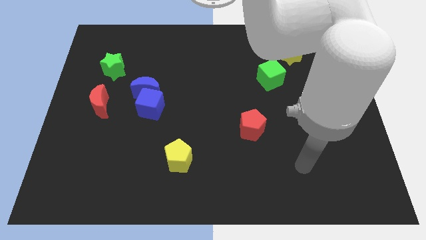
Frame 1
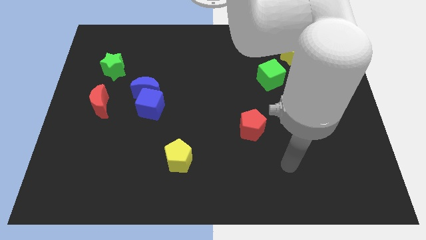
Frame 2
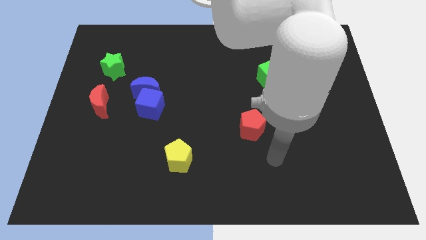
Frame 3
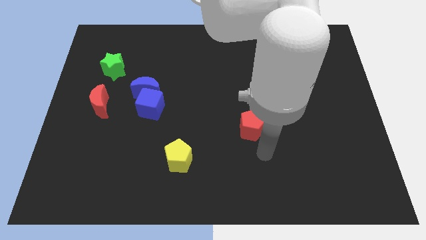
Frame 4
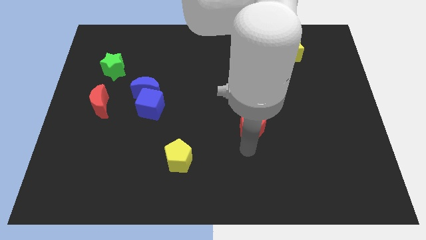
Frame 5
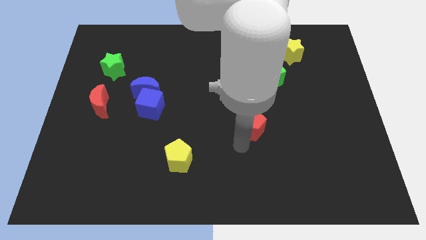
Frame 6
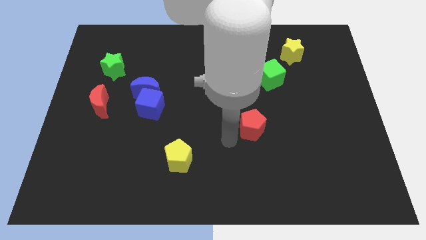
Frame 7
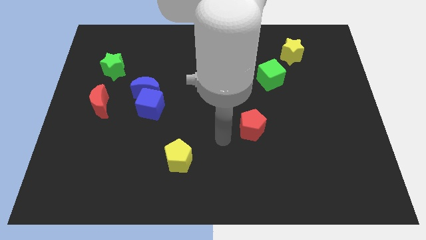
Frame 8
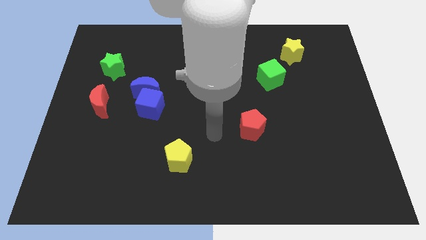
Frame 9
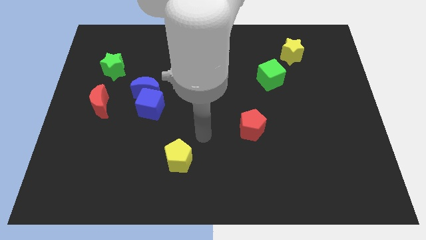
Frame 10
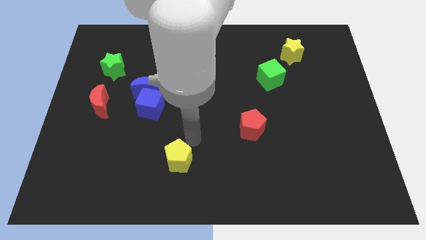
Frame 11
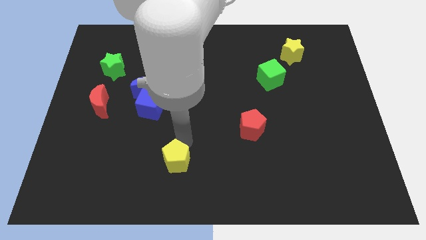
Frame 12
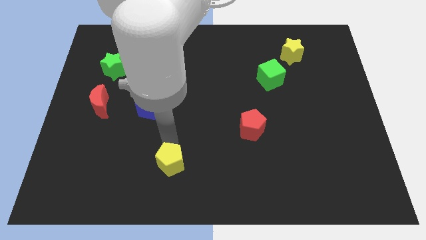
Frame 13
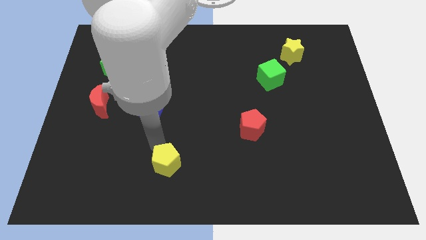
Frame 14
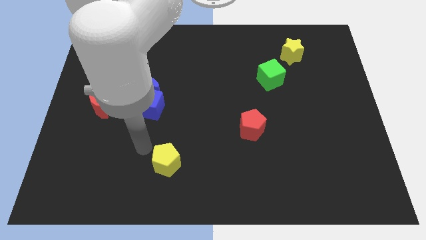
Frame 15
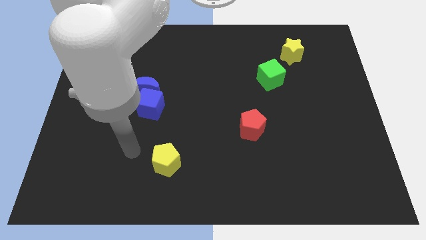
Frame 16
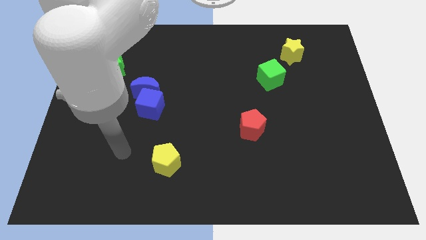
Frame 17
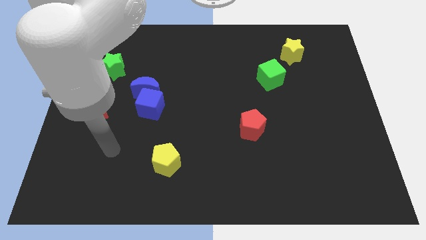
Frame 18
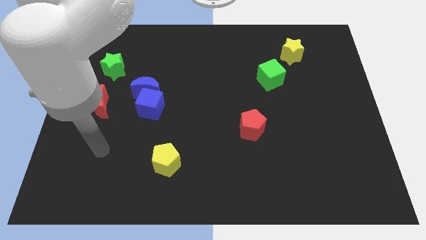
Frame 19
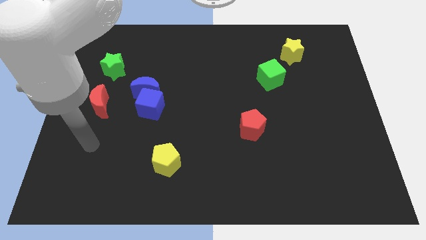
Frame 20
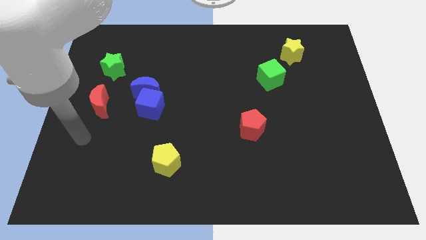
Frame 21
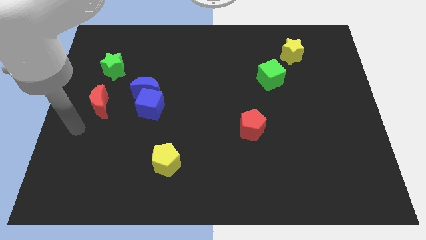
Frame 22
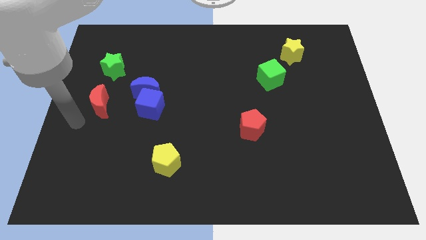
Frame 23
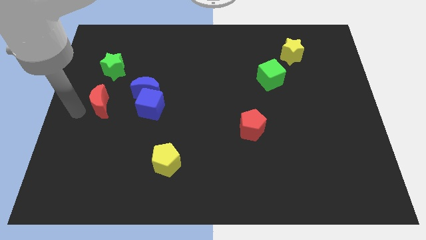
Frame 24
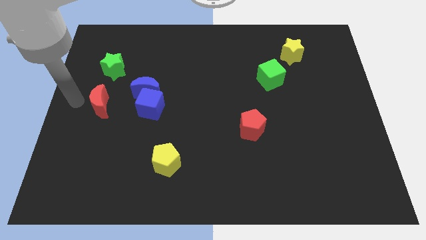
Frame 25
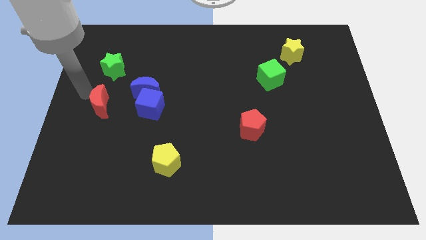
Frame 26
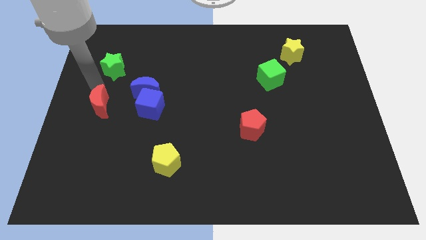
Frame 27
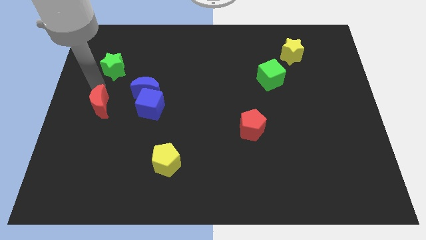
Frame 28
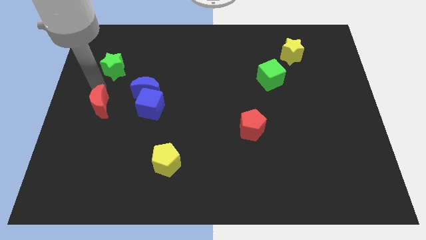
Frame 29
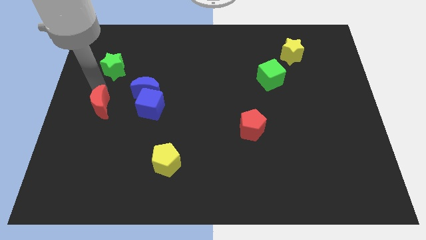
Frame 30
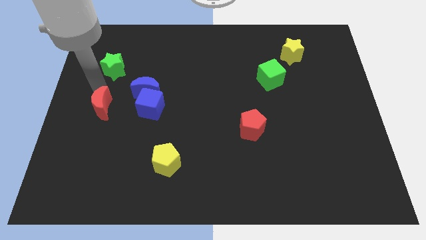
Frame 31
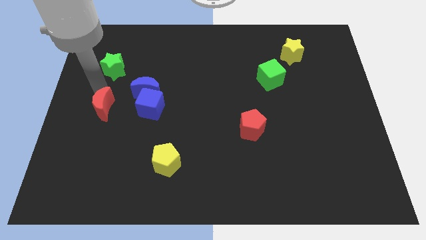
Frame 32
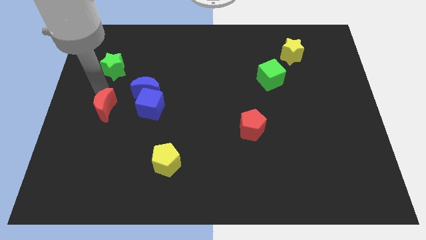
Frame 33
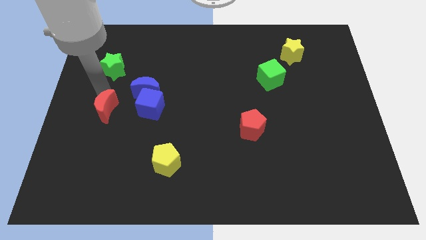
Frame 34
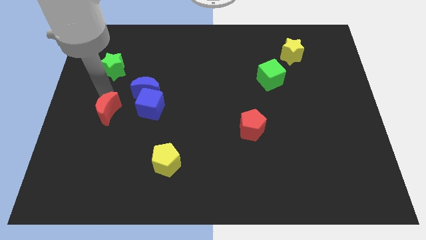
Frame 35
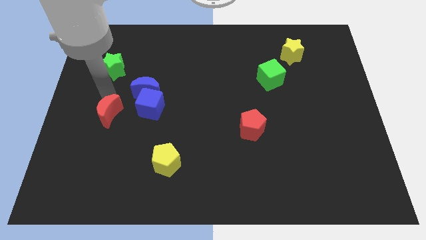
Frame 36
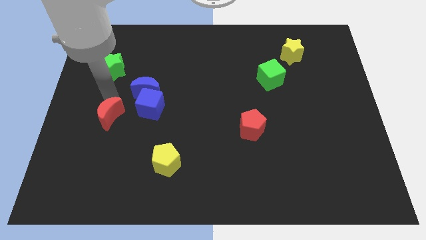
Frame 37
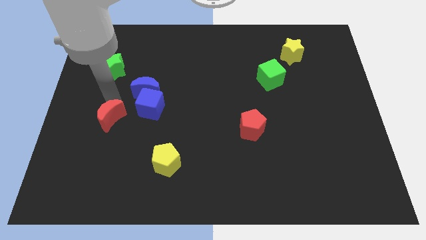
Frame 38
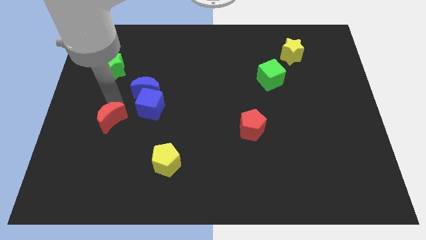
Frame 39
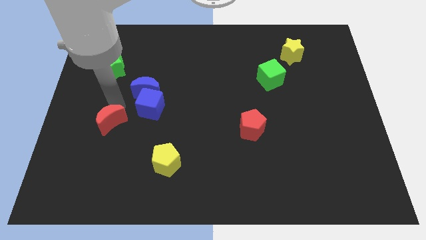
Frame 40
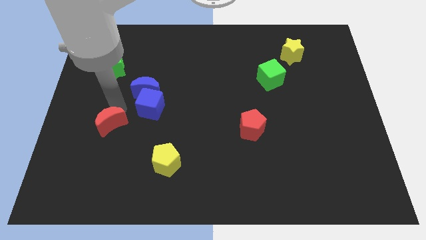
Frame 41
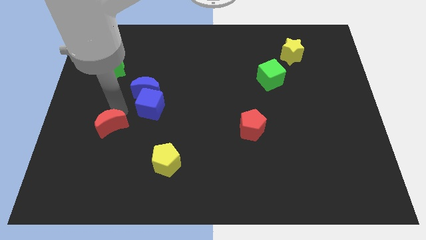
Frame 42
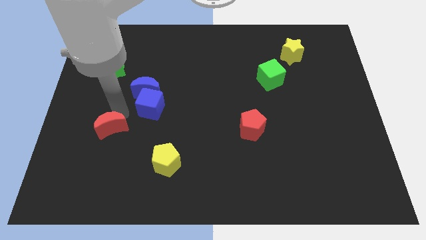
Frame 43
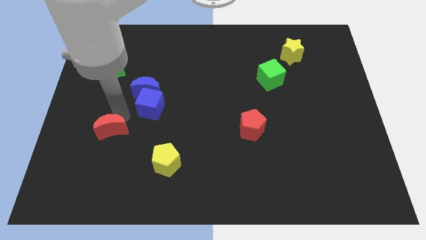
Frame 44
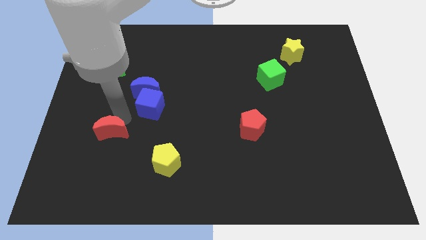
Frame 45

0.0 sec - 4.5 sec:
slightly slide the red moon downwards

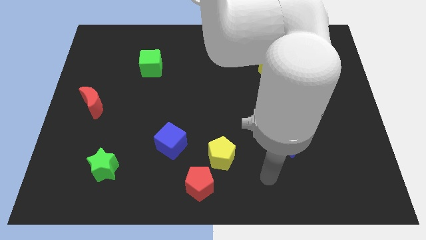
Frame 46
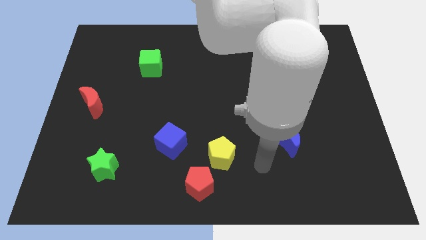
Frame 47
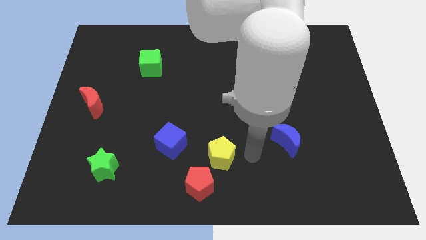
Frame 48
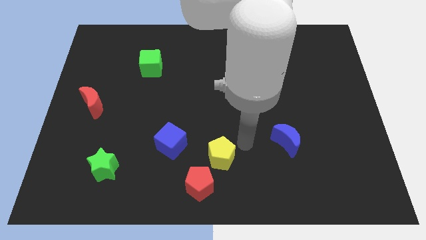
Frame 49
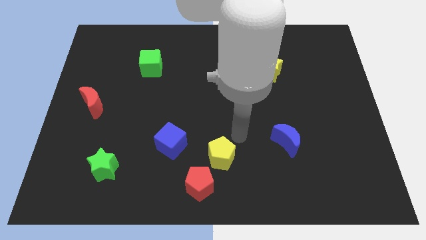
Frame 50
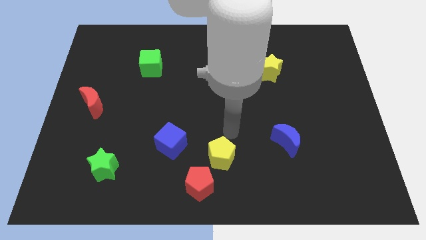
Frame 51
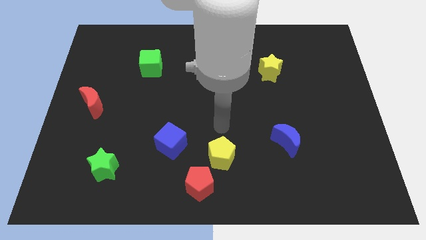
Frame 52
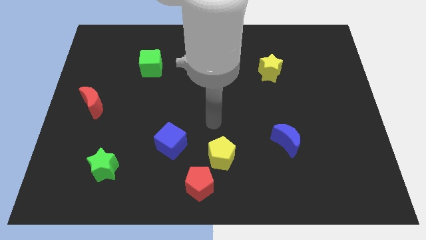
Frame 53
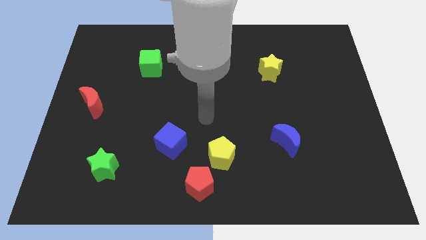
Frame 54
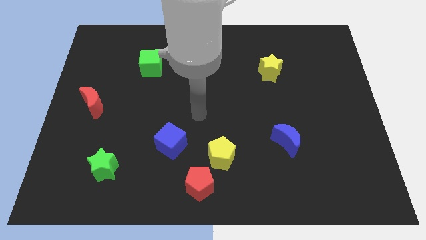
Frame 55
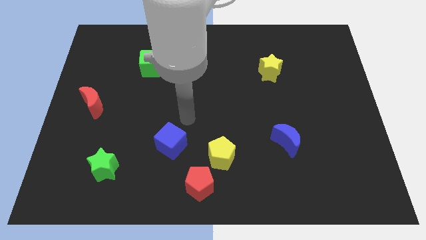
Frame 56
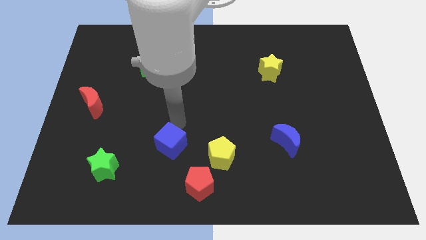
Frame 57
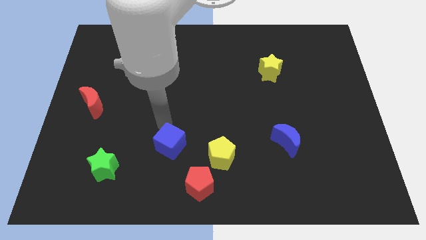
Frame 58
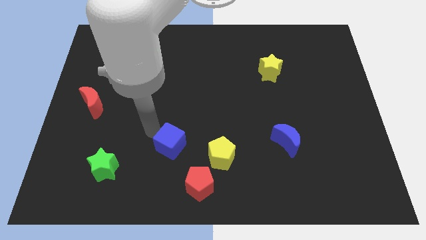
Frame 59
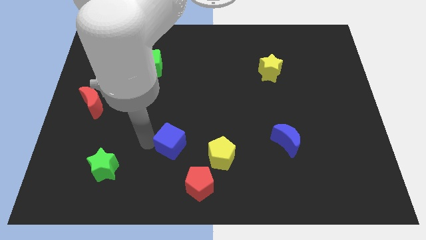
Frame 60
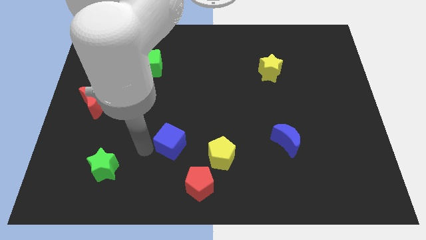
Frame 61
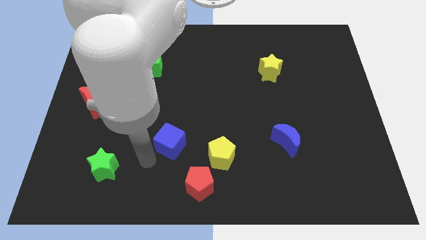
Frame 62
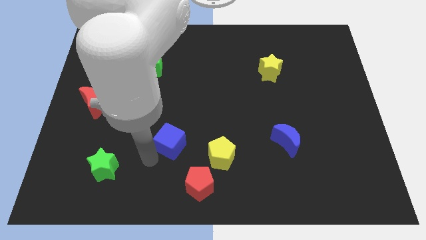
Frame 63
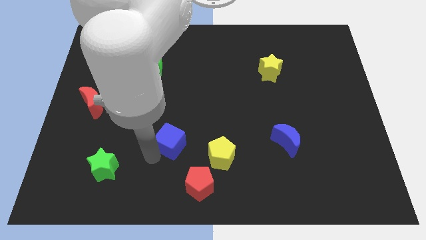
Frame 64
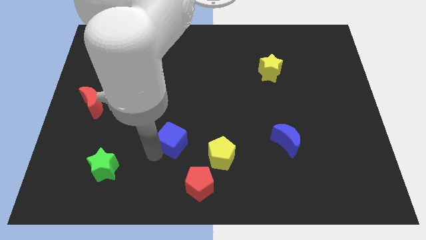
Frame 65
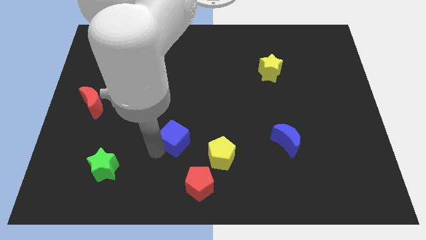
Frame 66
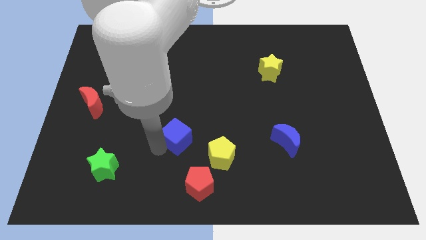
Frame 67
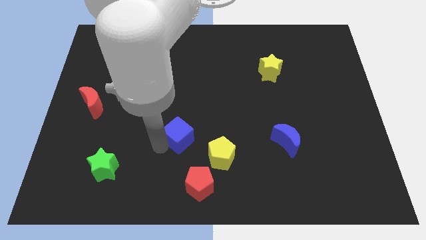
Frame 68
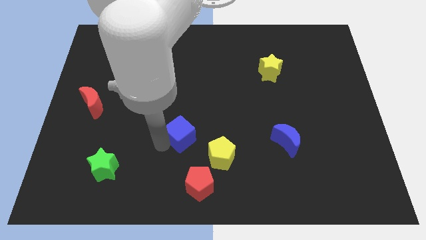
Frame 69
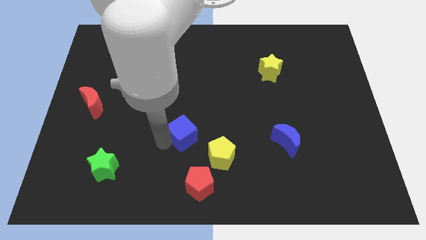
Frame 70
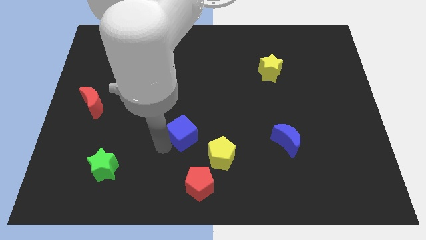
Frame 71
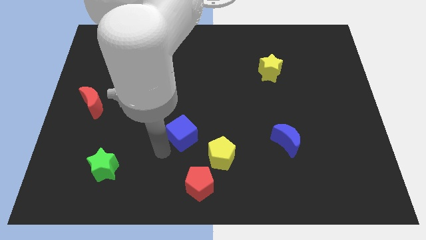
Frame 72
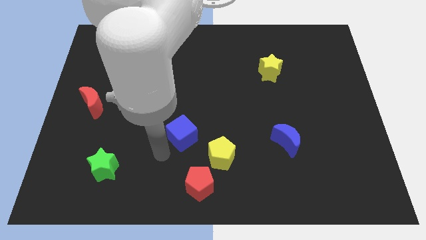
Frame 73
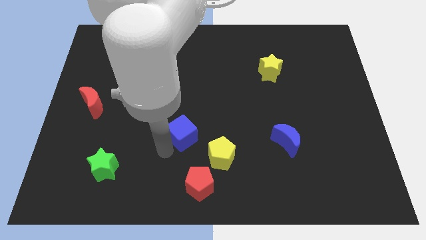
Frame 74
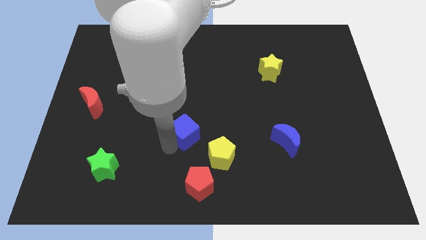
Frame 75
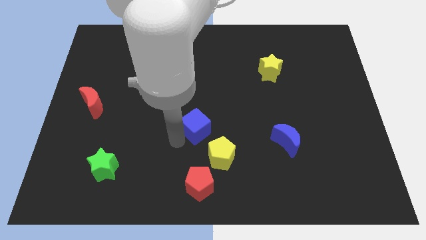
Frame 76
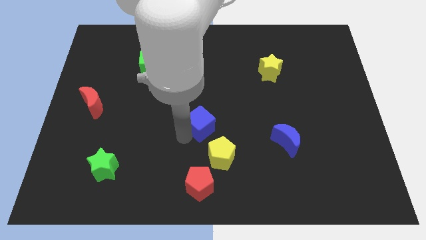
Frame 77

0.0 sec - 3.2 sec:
move the blue cube diagonally up and to the right a little
